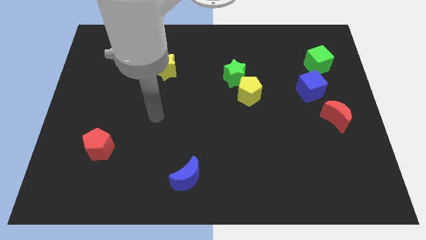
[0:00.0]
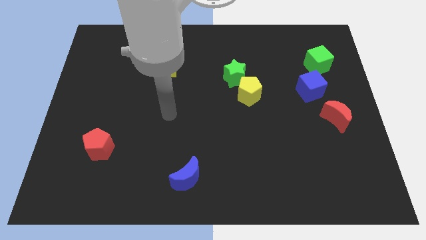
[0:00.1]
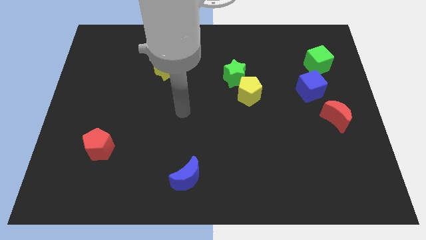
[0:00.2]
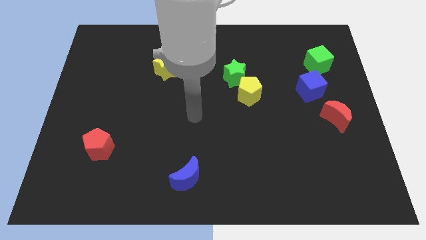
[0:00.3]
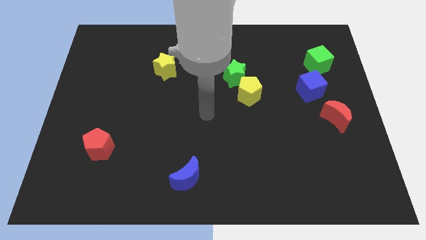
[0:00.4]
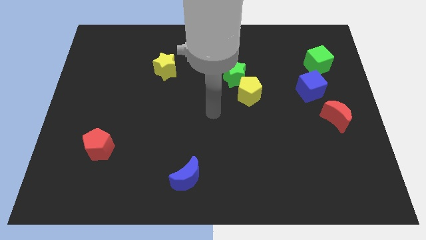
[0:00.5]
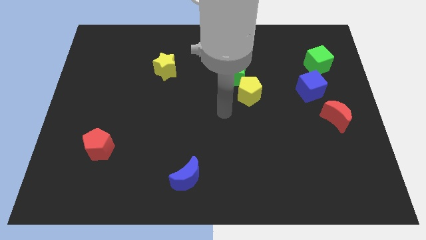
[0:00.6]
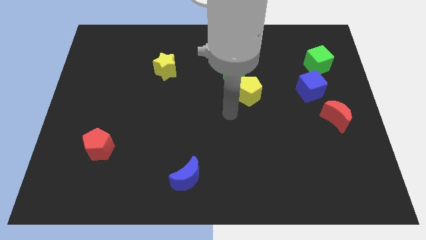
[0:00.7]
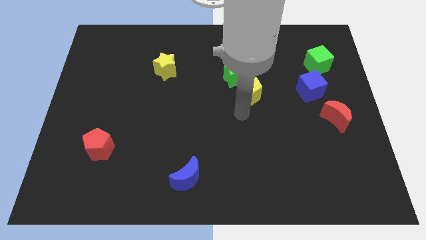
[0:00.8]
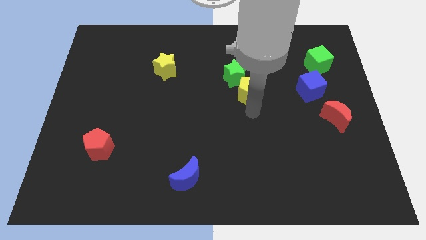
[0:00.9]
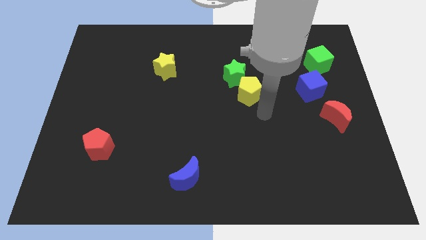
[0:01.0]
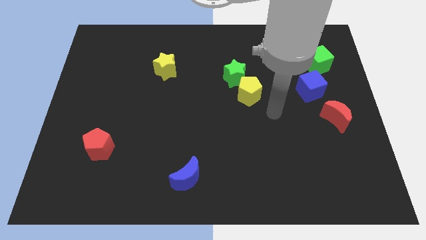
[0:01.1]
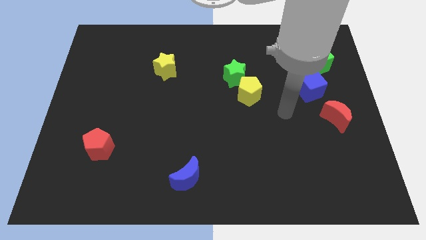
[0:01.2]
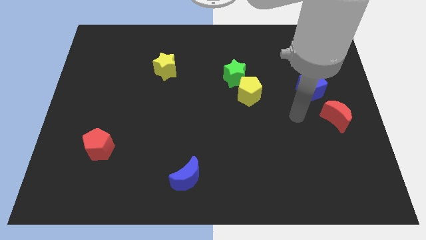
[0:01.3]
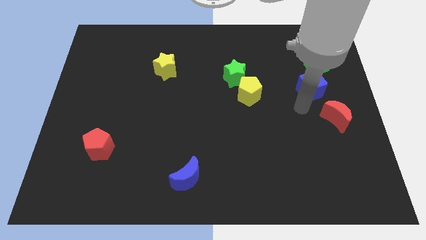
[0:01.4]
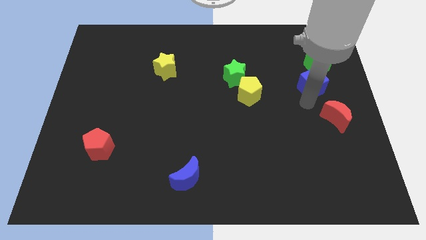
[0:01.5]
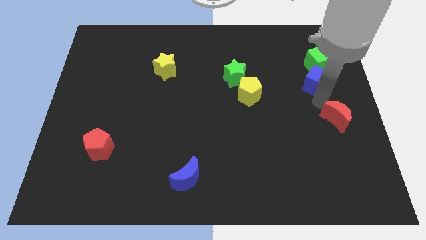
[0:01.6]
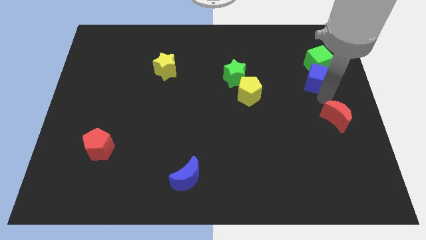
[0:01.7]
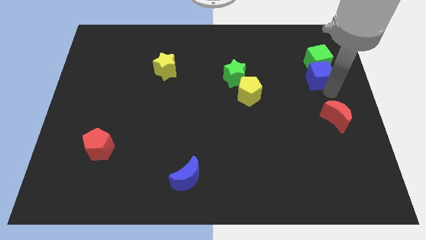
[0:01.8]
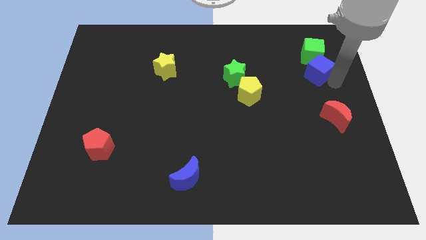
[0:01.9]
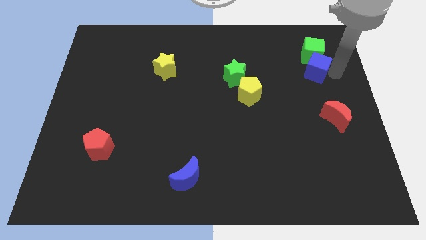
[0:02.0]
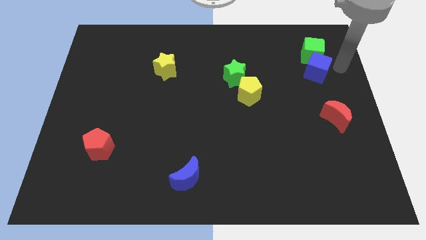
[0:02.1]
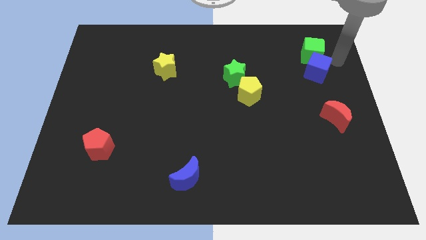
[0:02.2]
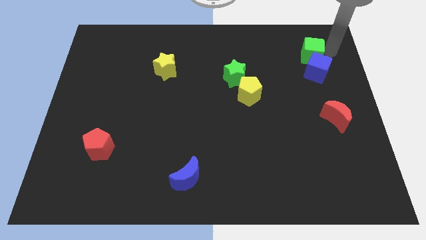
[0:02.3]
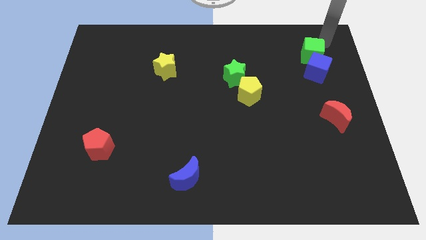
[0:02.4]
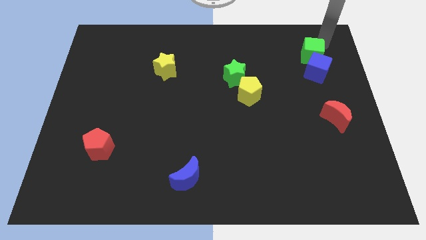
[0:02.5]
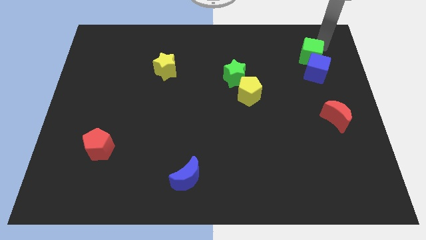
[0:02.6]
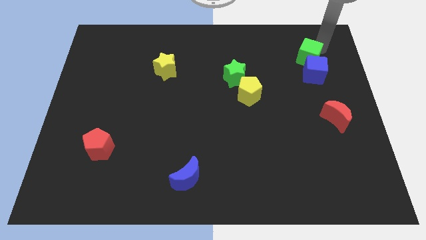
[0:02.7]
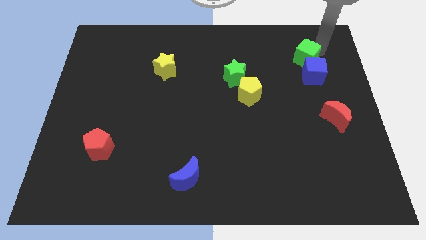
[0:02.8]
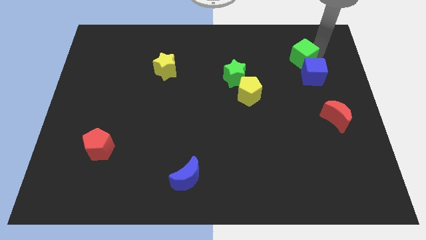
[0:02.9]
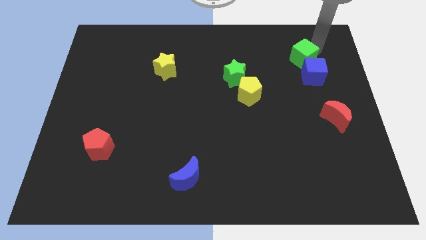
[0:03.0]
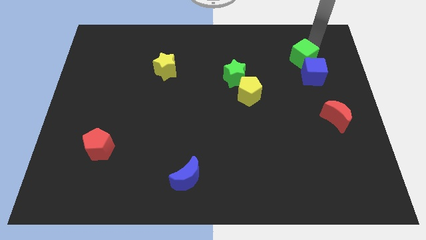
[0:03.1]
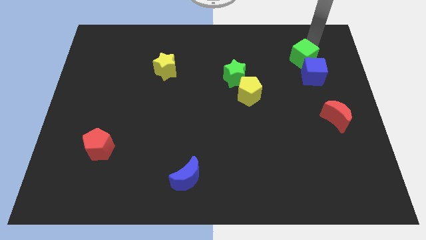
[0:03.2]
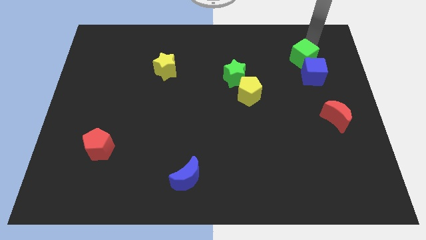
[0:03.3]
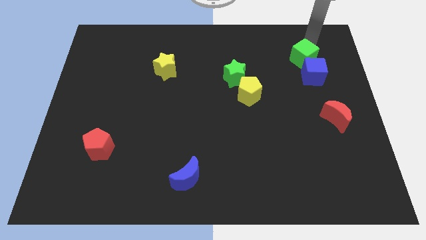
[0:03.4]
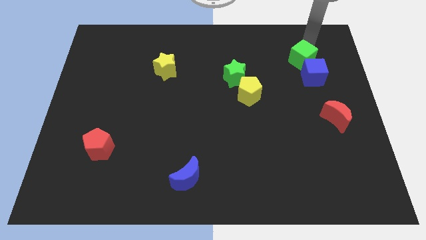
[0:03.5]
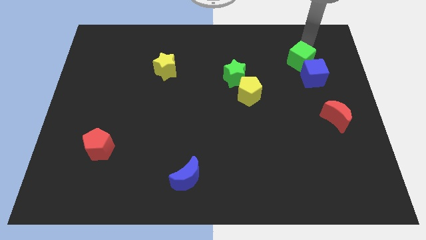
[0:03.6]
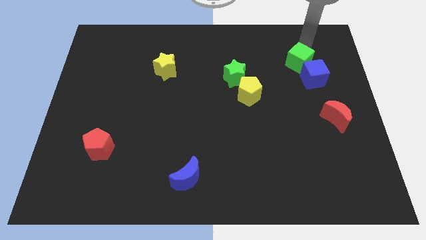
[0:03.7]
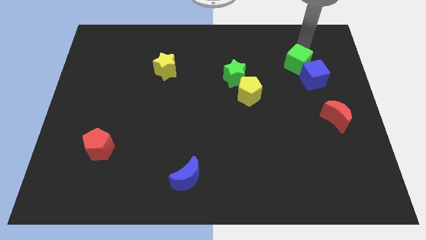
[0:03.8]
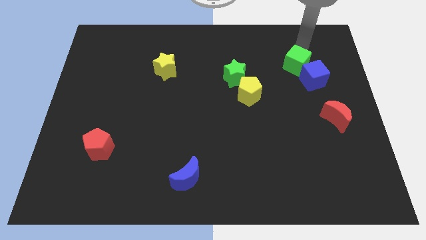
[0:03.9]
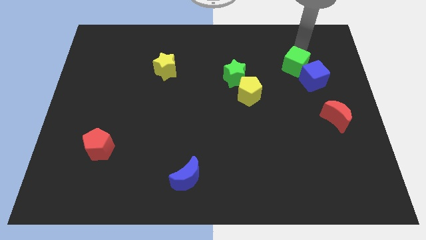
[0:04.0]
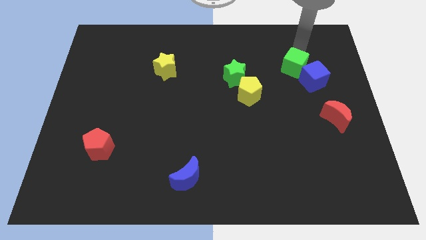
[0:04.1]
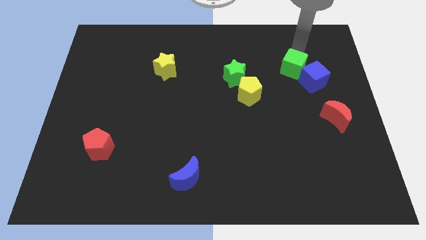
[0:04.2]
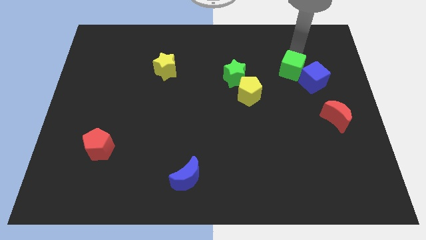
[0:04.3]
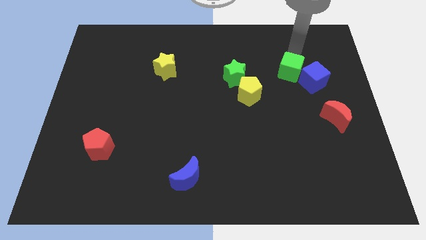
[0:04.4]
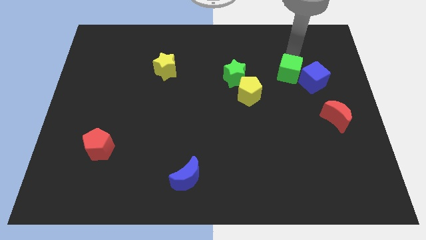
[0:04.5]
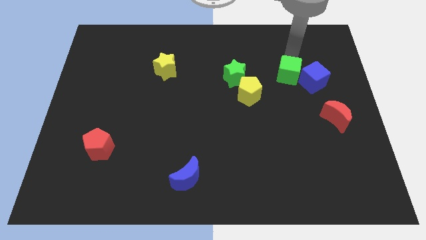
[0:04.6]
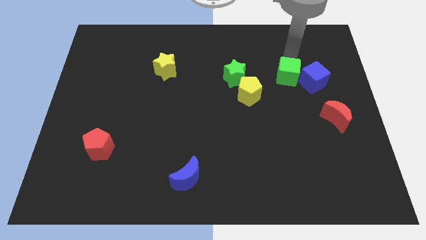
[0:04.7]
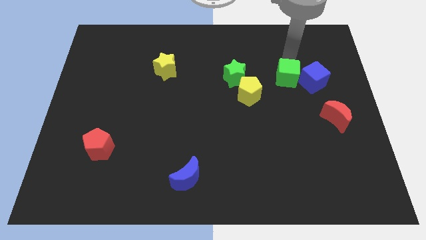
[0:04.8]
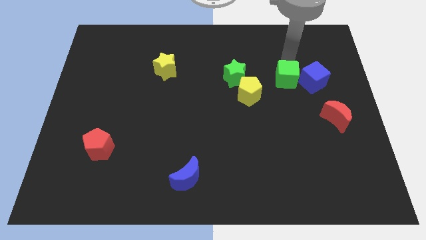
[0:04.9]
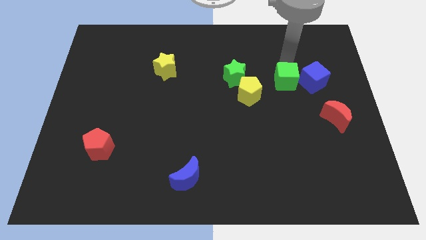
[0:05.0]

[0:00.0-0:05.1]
push the green cube to the bottom left side of the blue cube
